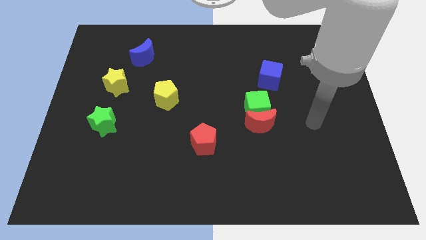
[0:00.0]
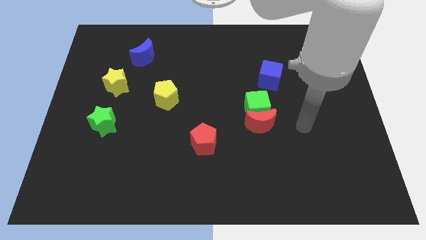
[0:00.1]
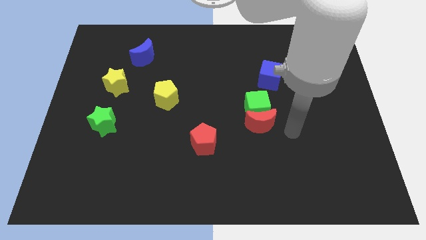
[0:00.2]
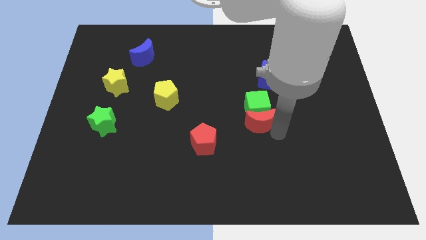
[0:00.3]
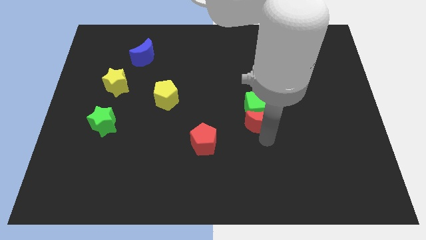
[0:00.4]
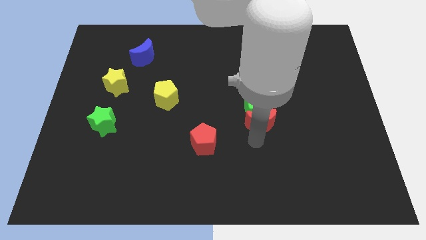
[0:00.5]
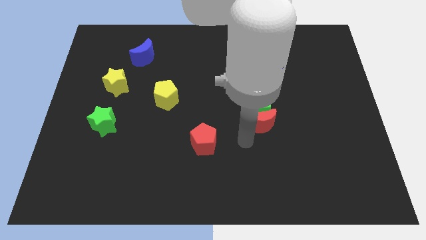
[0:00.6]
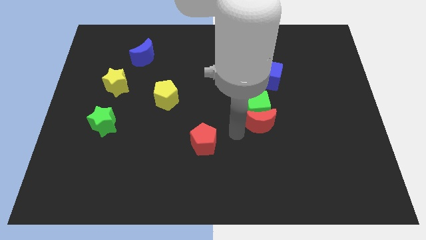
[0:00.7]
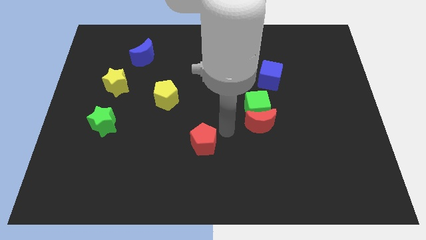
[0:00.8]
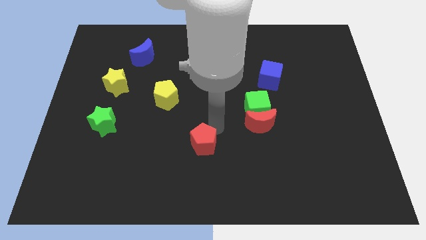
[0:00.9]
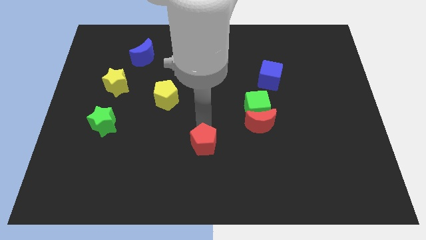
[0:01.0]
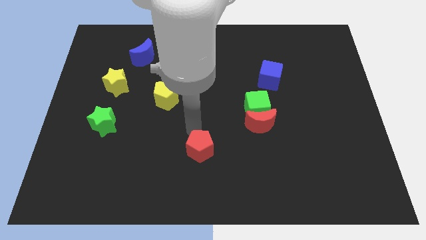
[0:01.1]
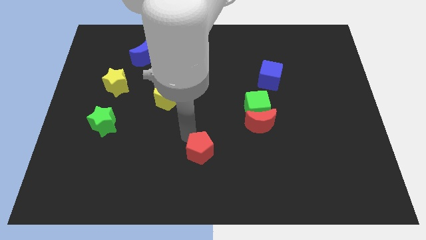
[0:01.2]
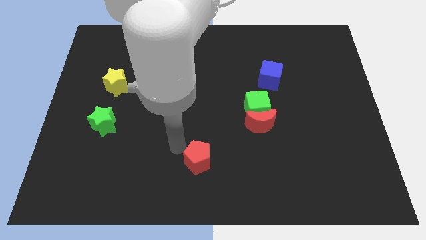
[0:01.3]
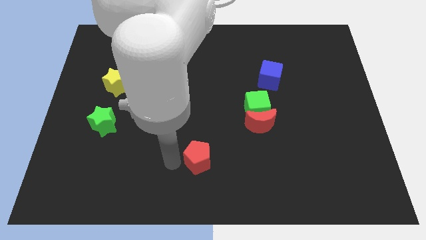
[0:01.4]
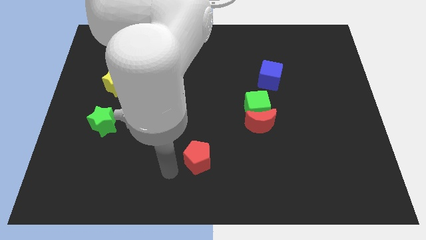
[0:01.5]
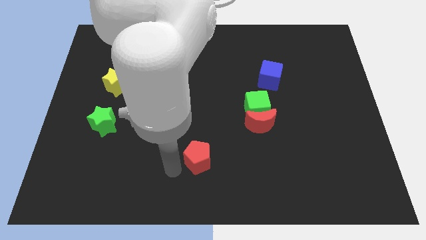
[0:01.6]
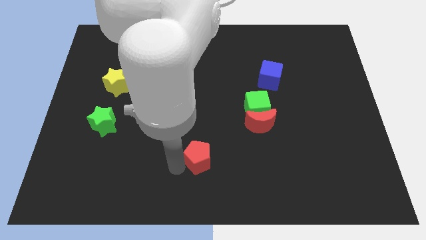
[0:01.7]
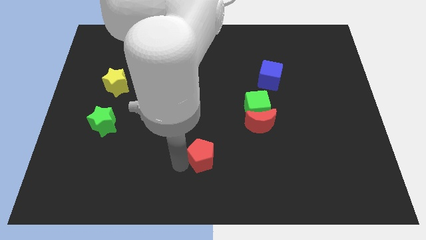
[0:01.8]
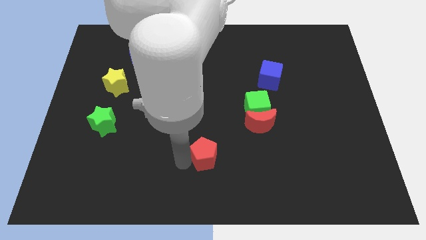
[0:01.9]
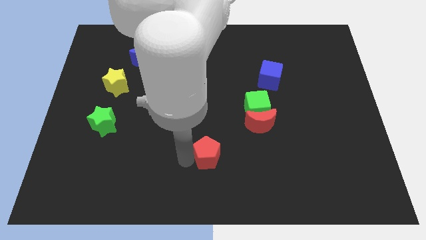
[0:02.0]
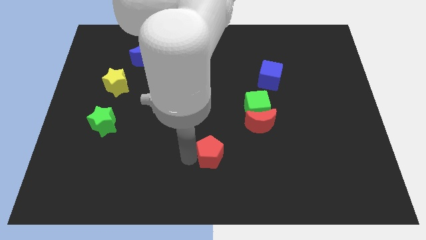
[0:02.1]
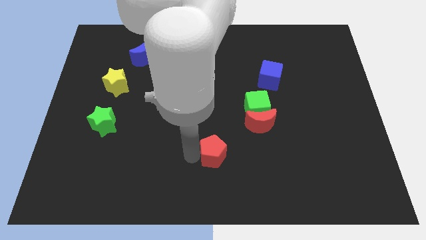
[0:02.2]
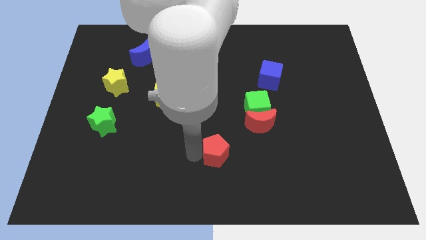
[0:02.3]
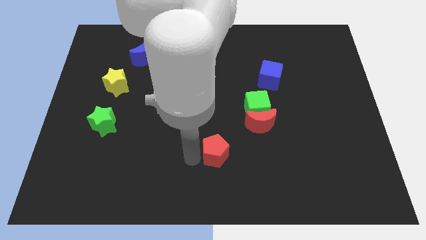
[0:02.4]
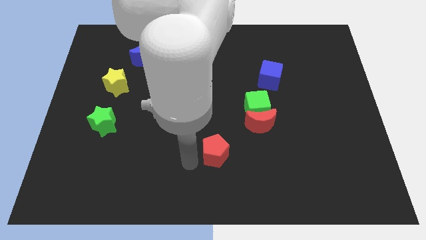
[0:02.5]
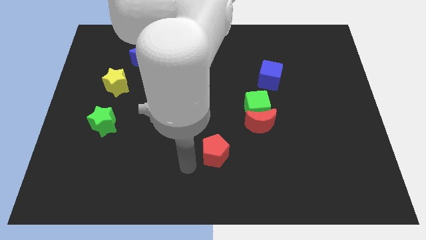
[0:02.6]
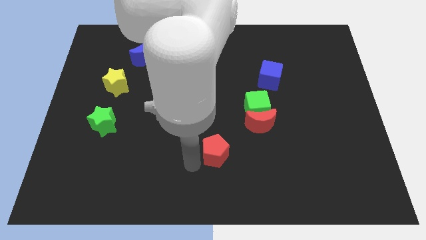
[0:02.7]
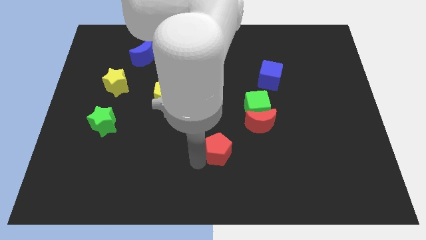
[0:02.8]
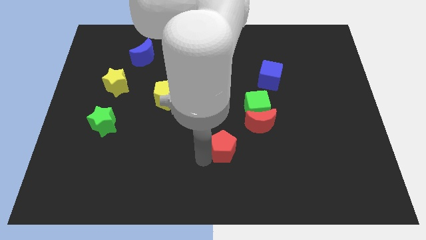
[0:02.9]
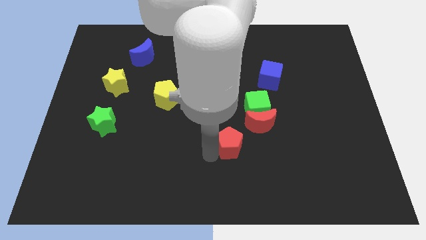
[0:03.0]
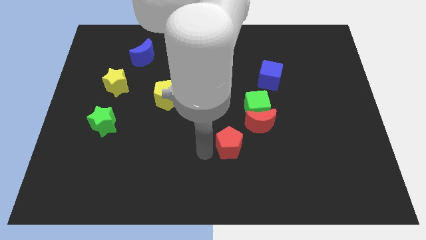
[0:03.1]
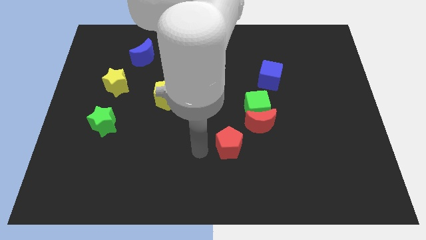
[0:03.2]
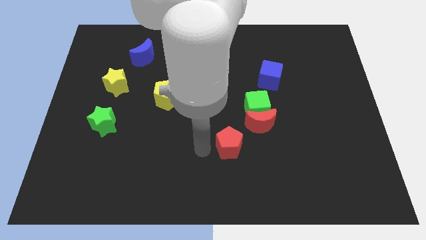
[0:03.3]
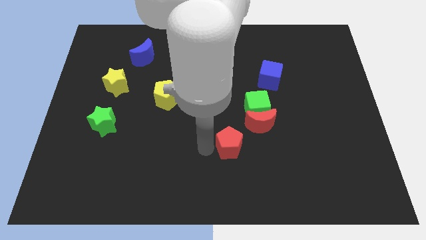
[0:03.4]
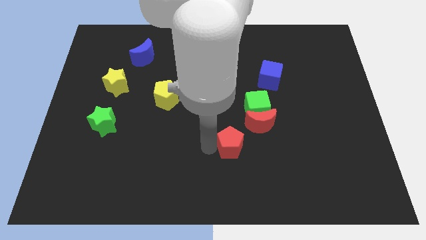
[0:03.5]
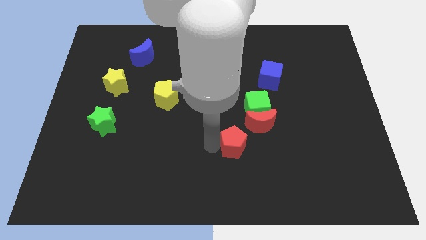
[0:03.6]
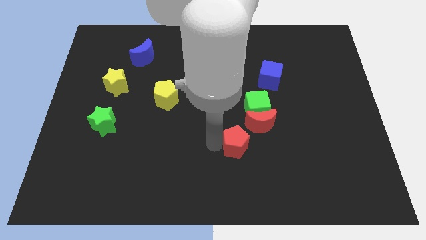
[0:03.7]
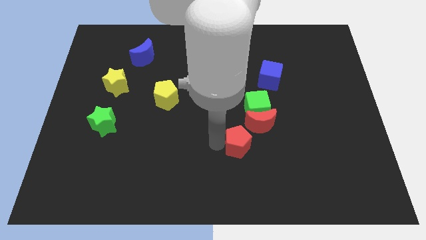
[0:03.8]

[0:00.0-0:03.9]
slide the red pentagon to the right a little

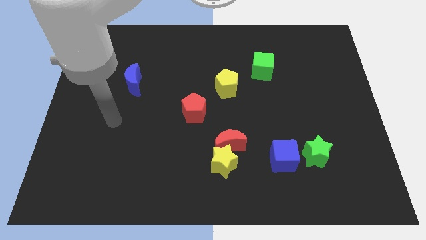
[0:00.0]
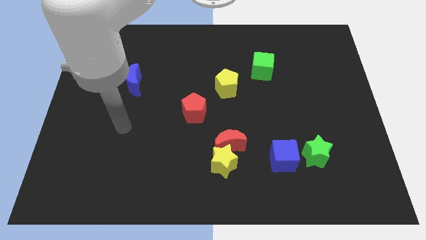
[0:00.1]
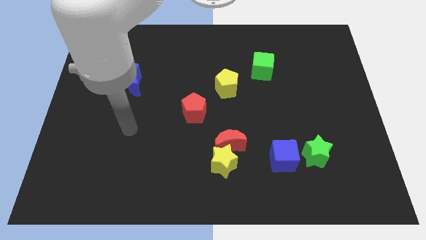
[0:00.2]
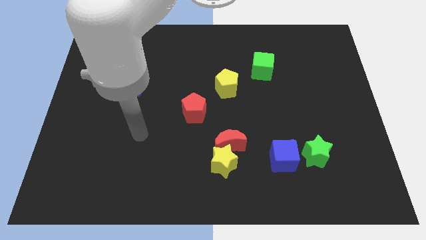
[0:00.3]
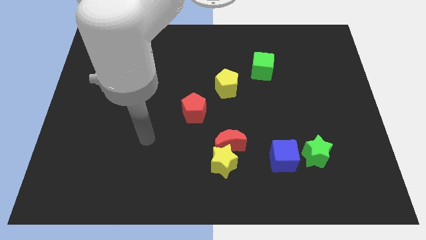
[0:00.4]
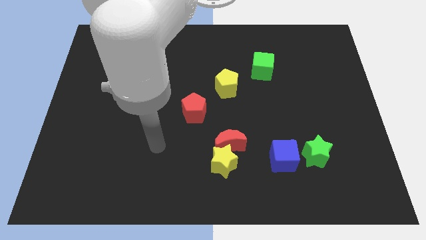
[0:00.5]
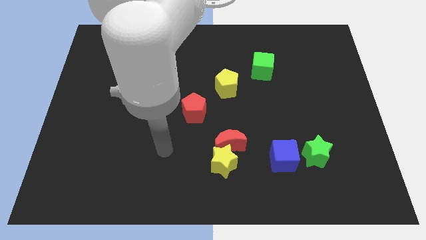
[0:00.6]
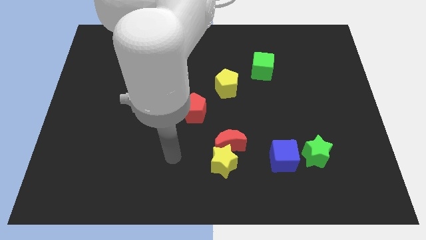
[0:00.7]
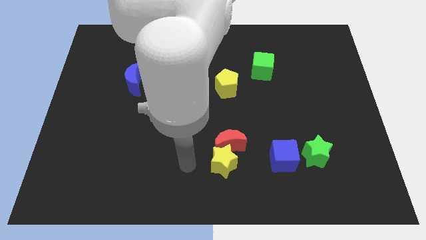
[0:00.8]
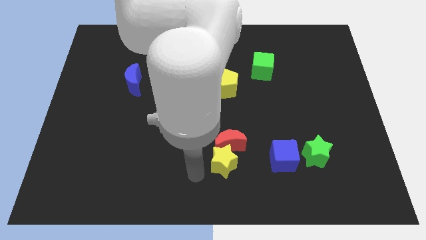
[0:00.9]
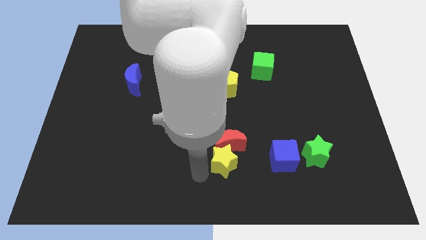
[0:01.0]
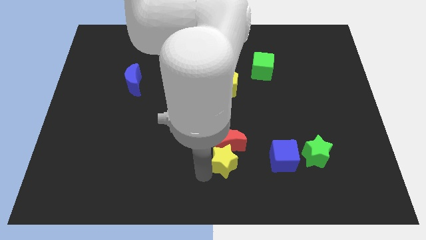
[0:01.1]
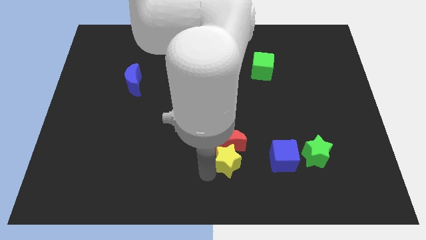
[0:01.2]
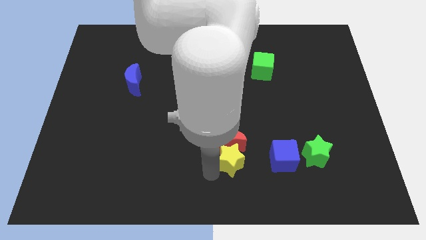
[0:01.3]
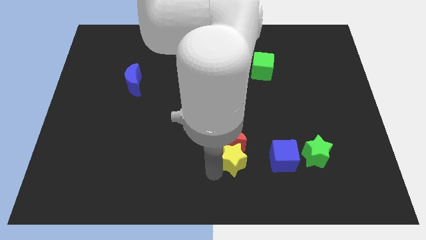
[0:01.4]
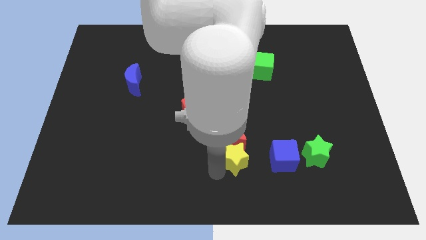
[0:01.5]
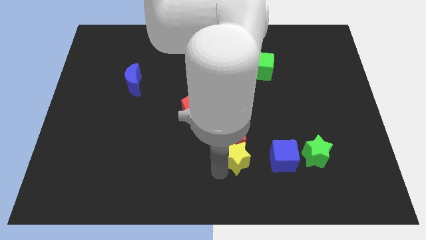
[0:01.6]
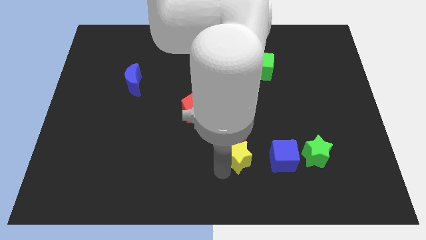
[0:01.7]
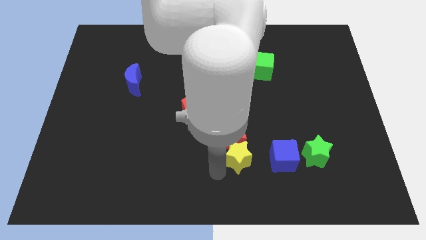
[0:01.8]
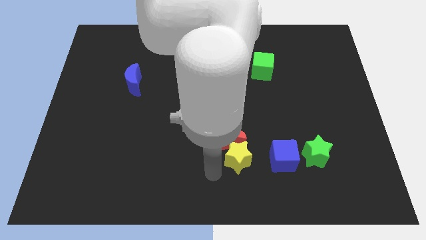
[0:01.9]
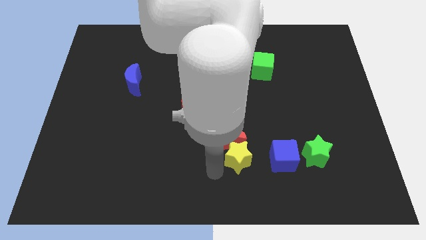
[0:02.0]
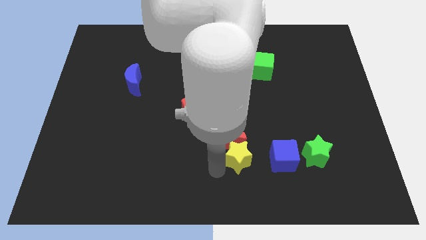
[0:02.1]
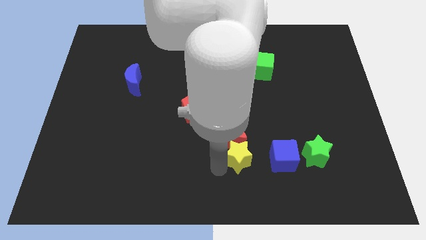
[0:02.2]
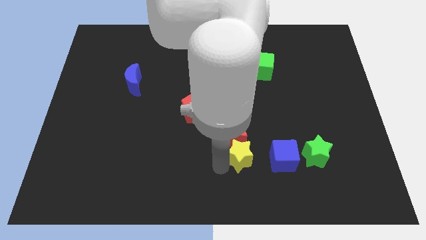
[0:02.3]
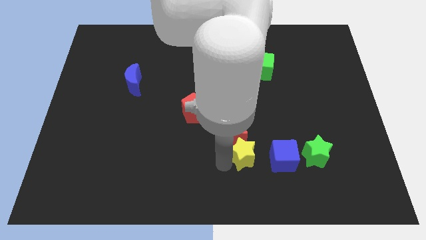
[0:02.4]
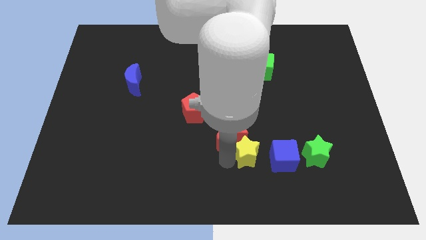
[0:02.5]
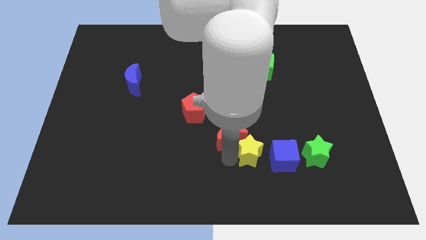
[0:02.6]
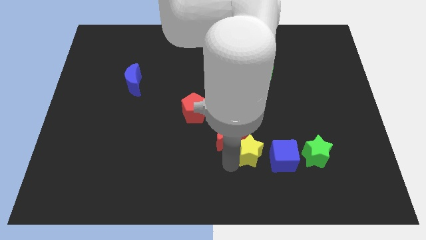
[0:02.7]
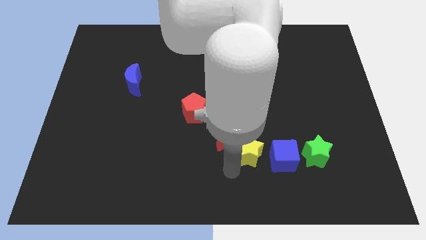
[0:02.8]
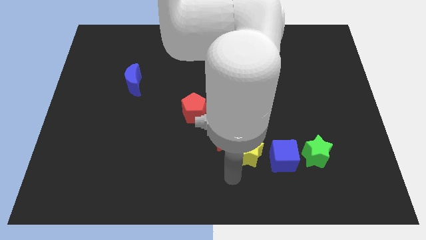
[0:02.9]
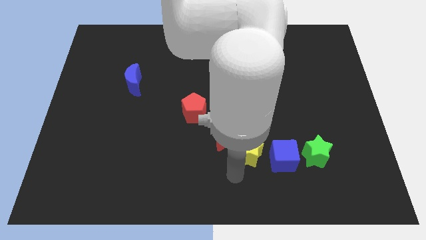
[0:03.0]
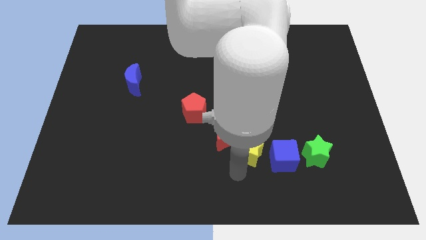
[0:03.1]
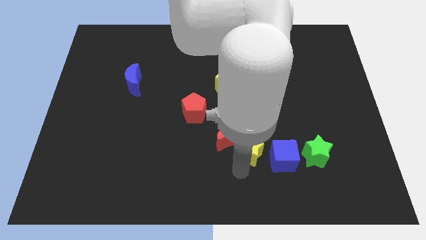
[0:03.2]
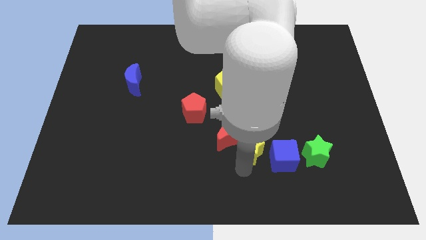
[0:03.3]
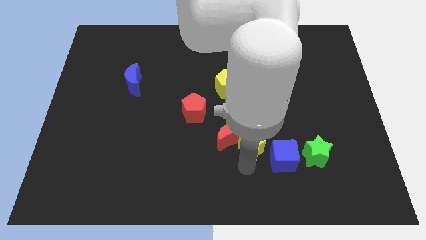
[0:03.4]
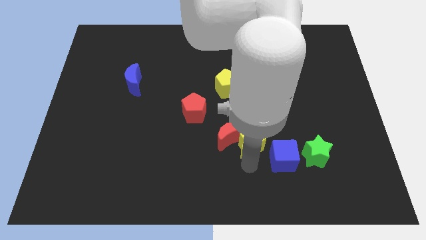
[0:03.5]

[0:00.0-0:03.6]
slightly move the yellow star upwards and then to the right

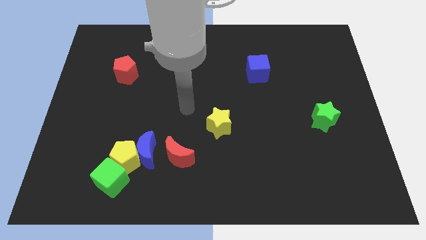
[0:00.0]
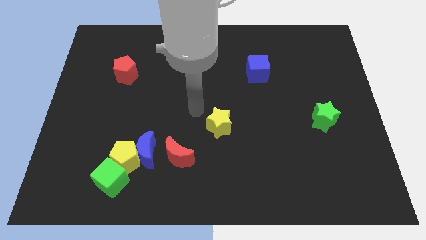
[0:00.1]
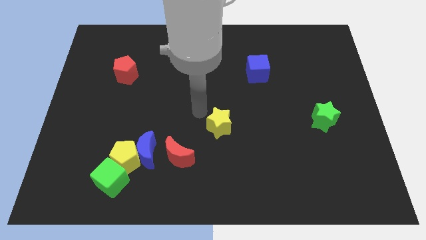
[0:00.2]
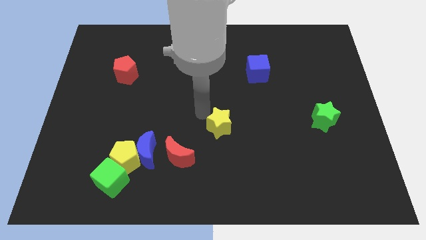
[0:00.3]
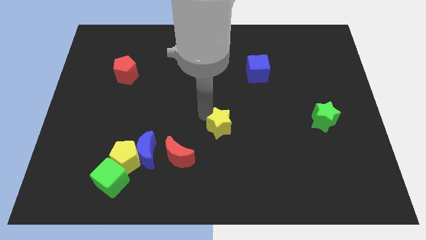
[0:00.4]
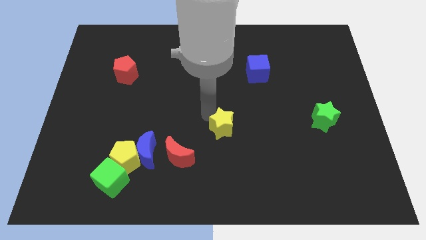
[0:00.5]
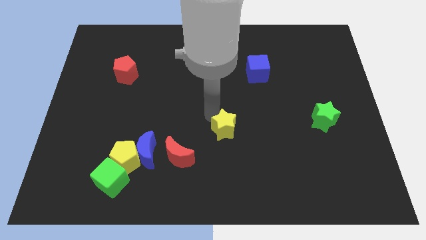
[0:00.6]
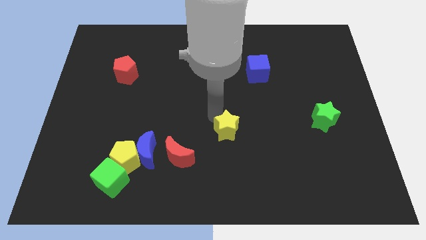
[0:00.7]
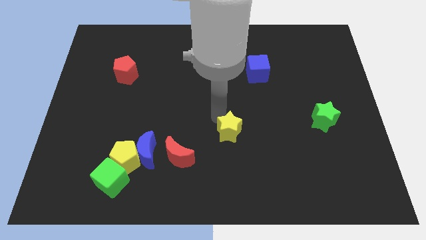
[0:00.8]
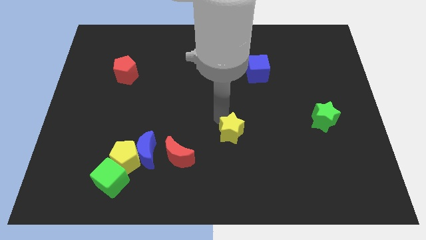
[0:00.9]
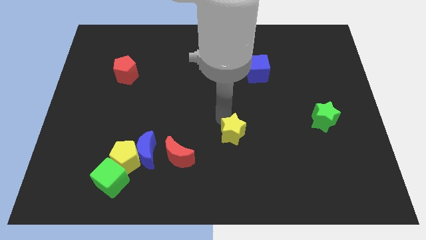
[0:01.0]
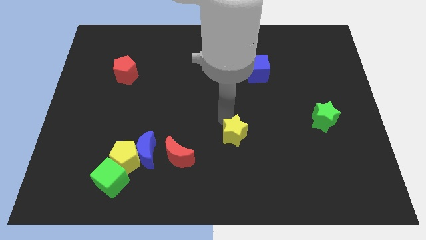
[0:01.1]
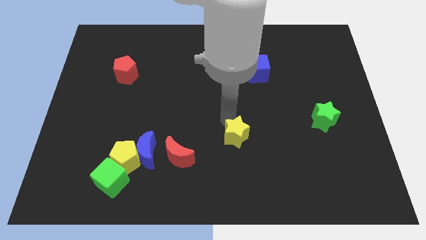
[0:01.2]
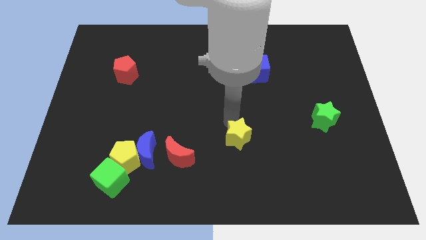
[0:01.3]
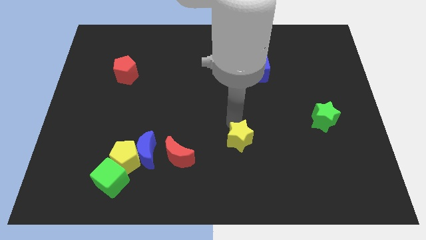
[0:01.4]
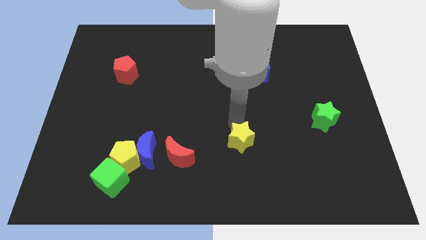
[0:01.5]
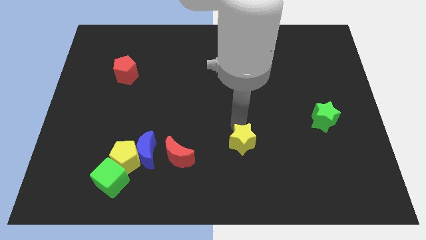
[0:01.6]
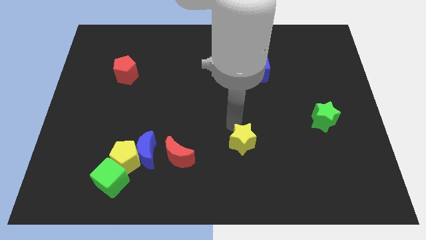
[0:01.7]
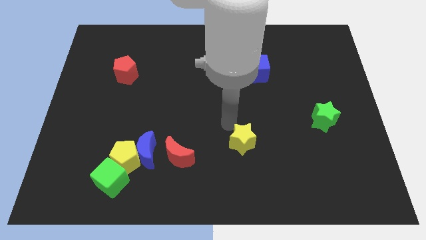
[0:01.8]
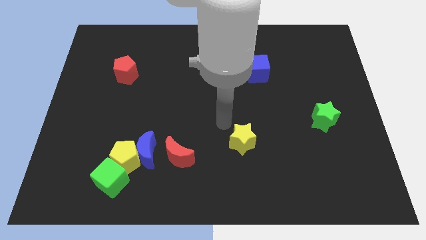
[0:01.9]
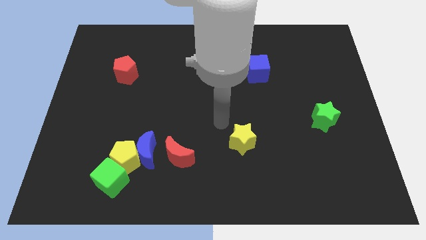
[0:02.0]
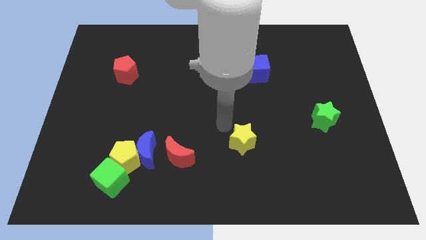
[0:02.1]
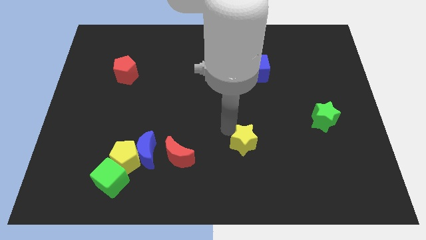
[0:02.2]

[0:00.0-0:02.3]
slide the yellow star somewhat downwards and right
